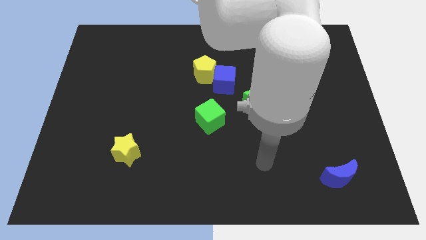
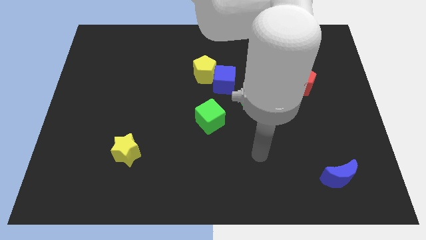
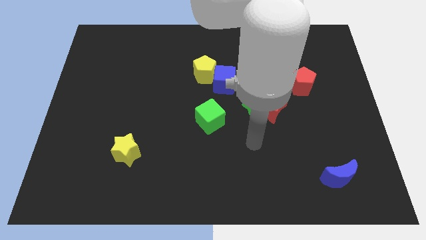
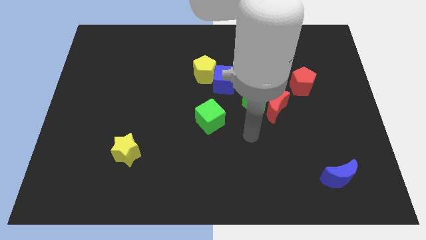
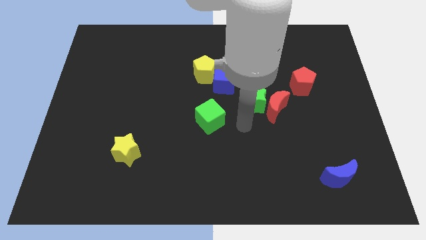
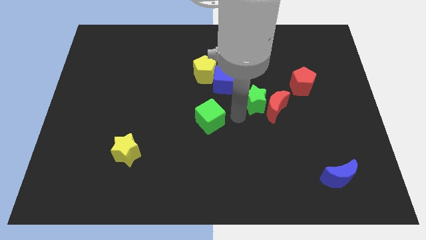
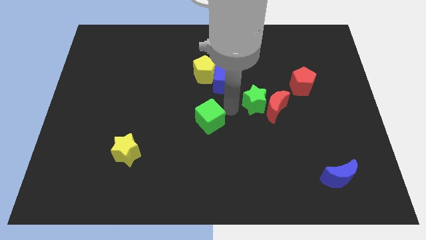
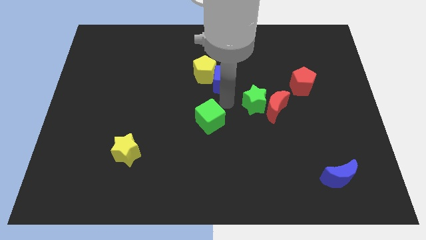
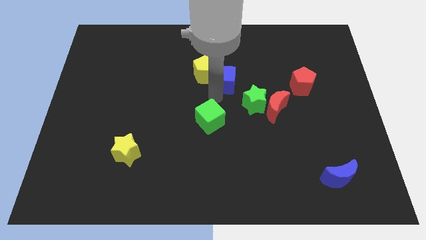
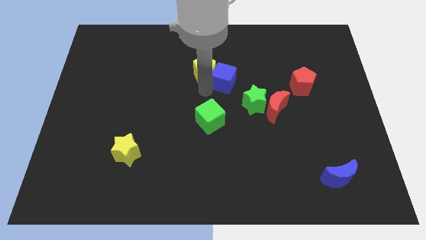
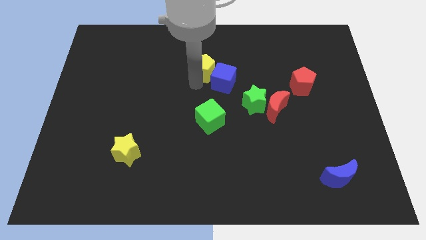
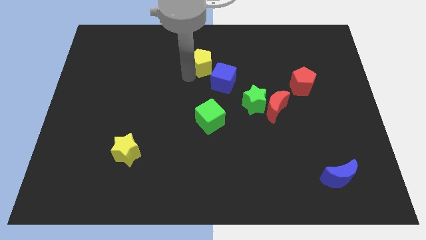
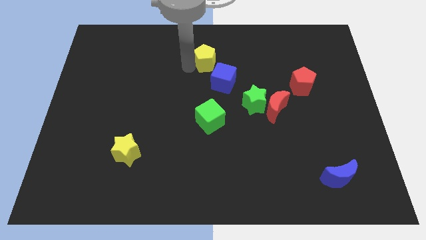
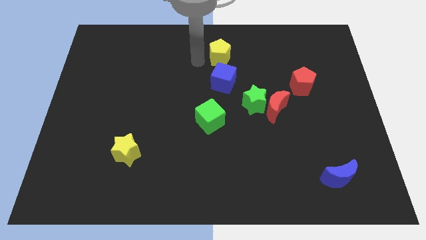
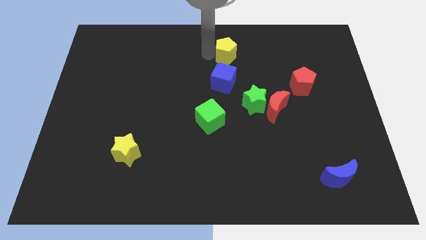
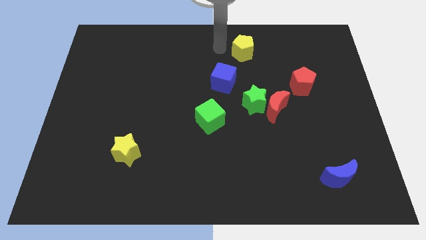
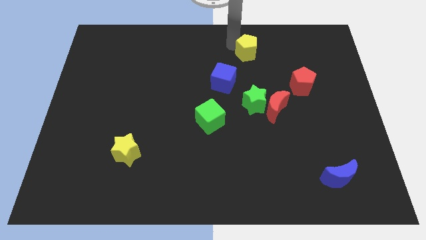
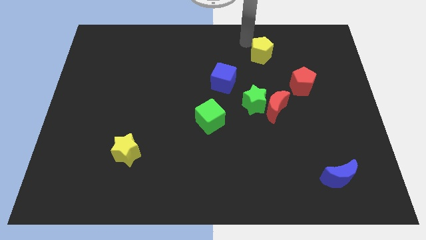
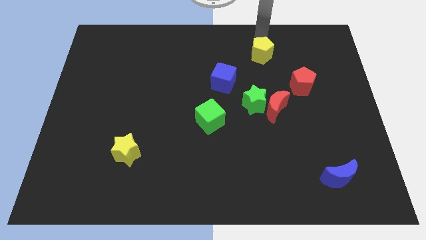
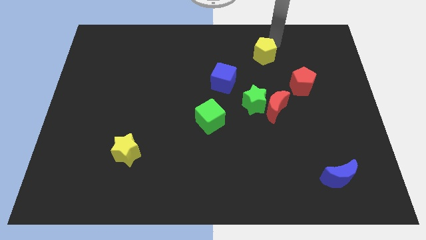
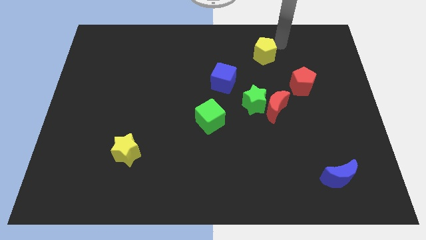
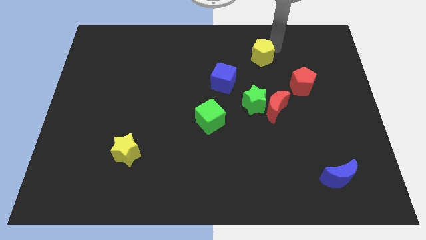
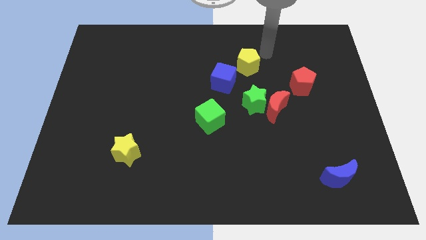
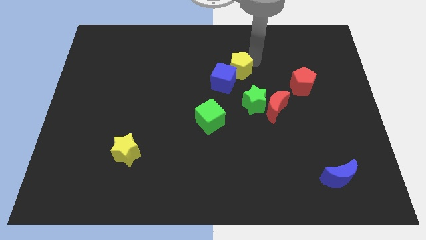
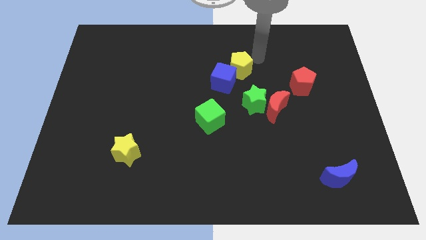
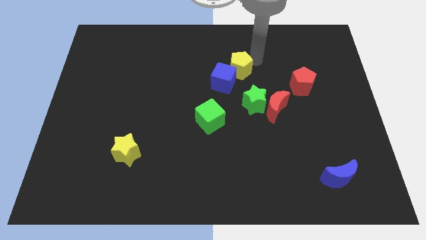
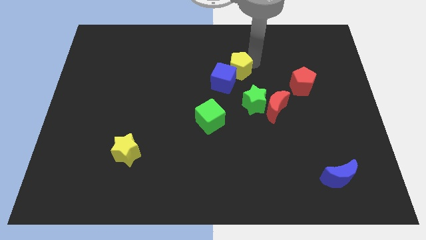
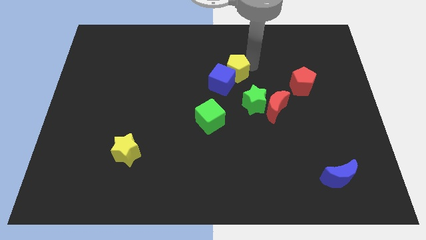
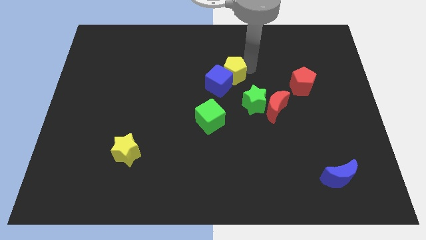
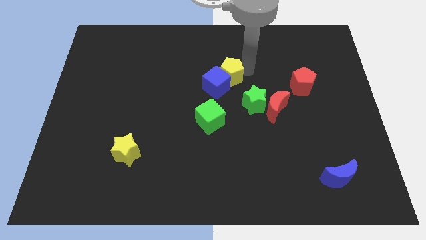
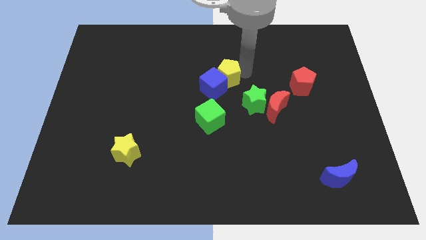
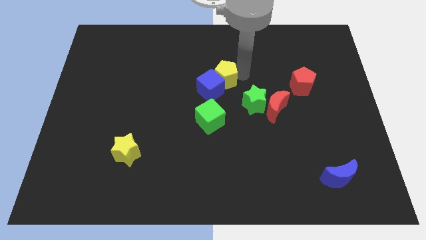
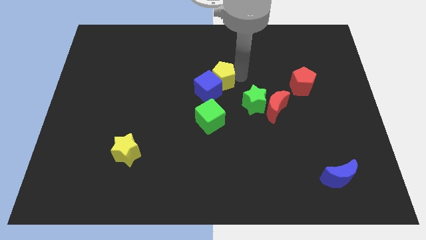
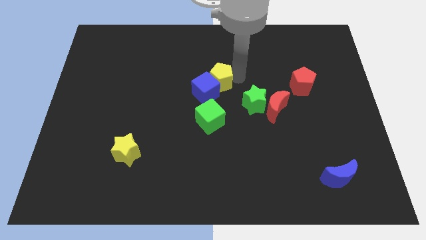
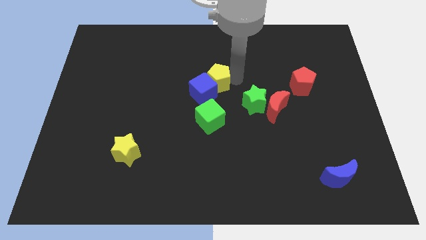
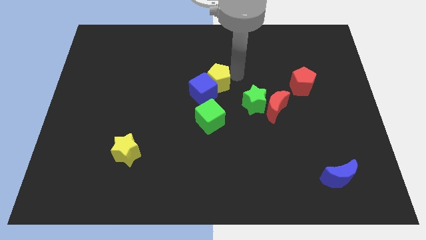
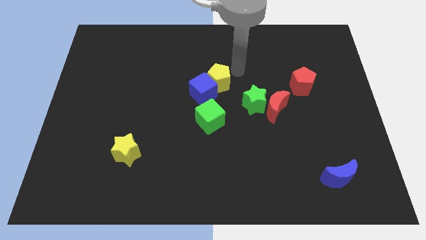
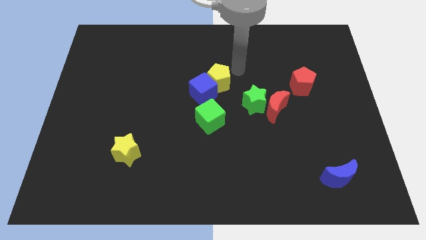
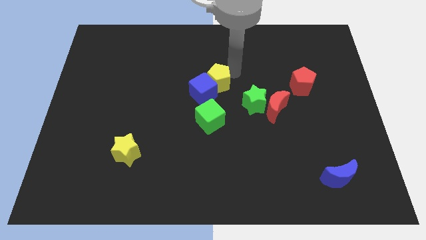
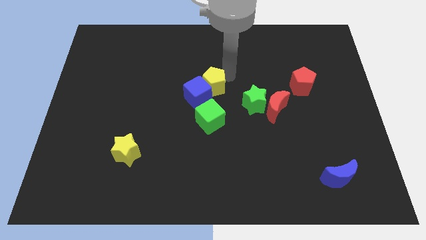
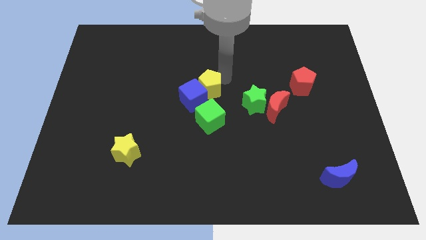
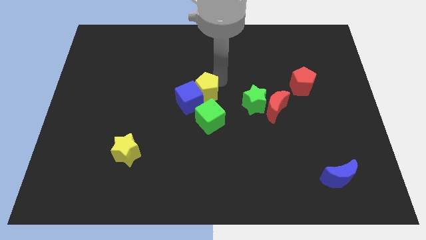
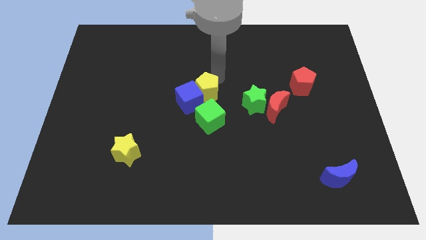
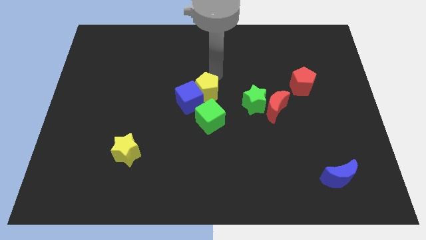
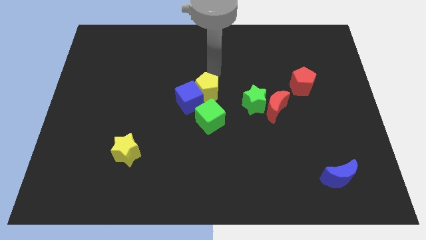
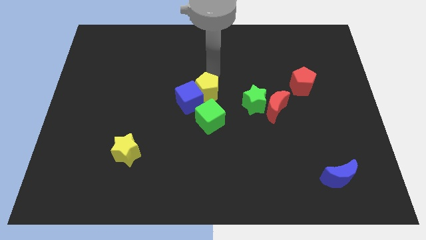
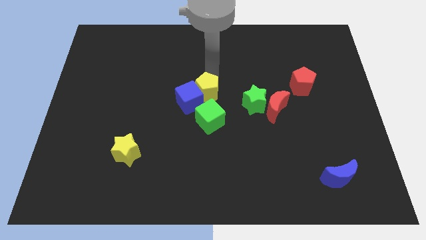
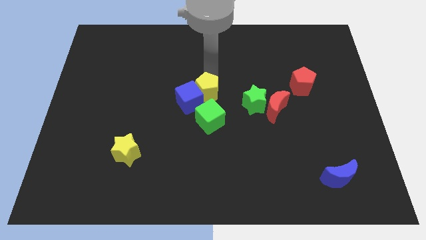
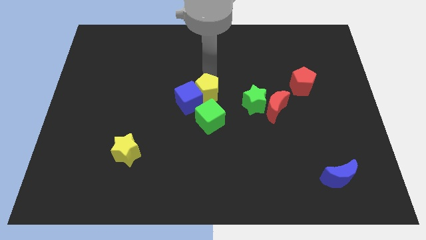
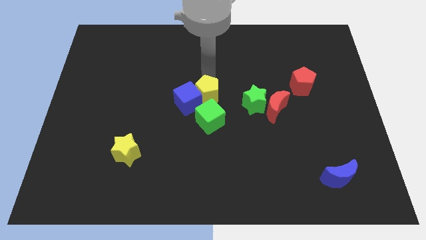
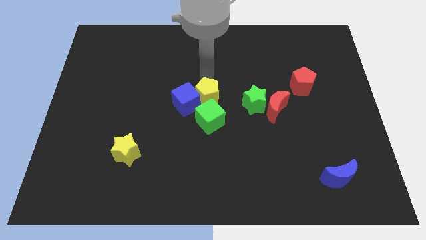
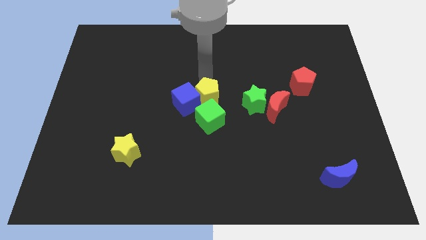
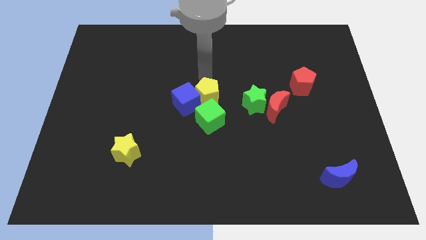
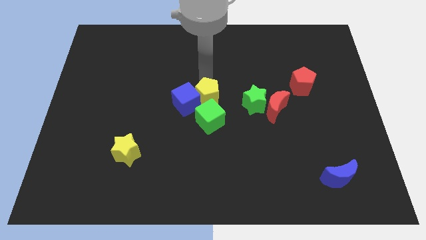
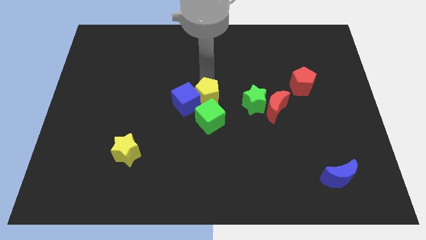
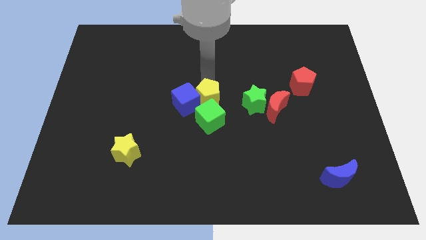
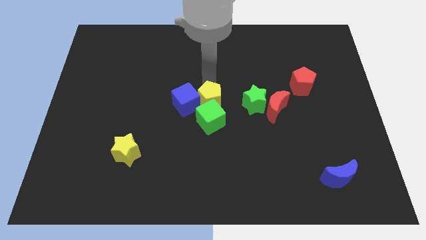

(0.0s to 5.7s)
move the yellow pentagon to the green cube

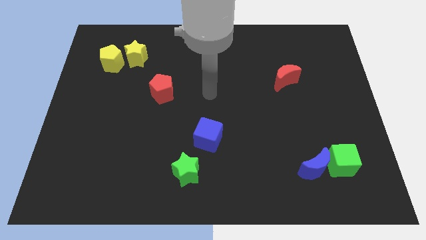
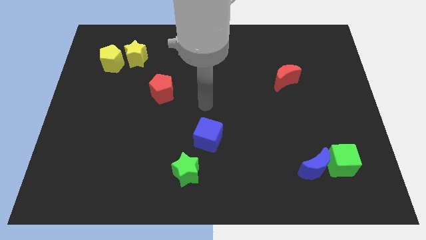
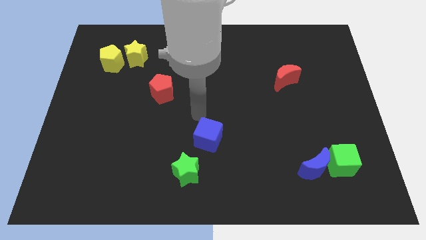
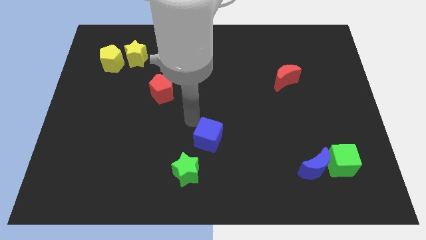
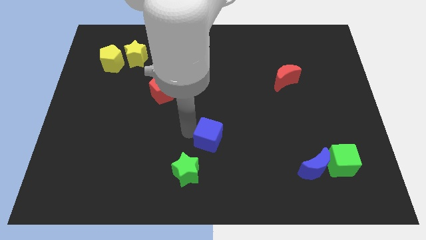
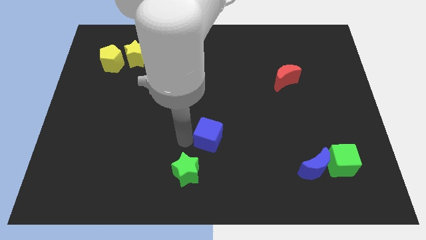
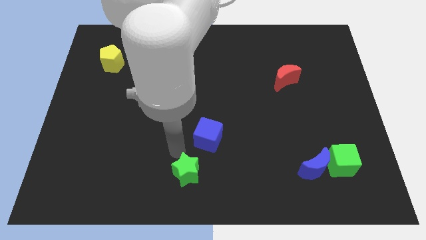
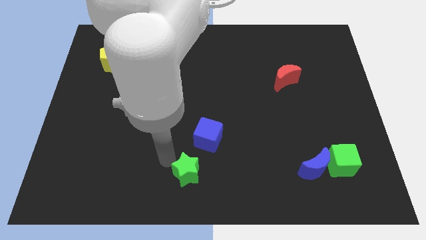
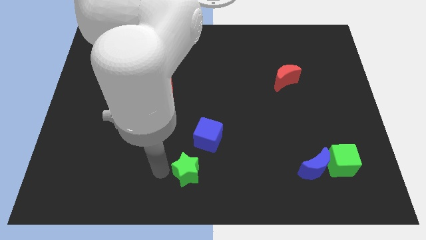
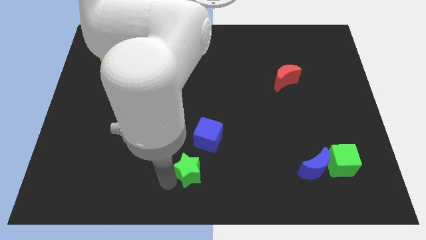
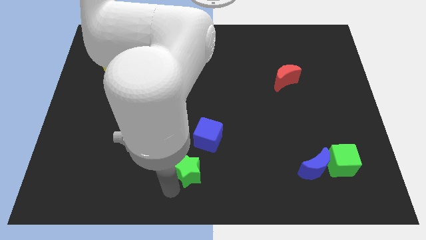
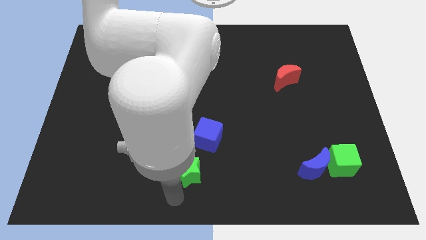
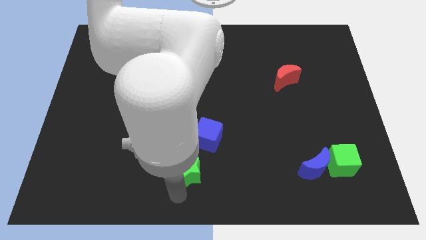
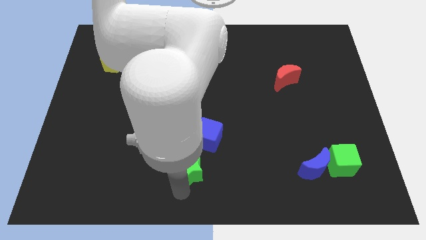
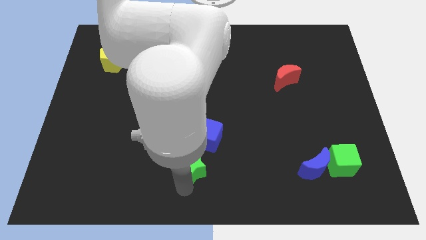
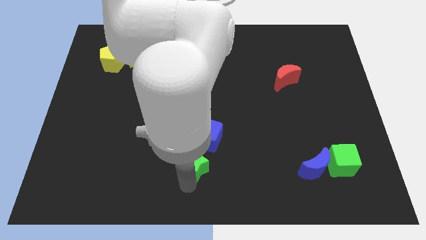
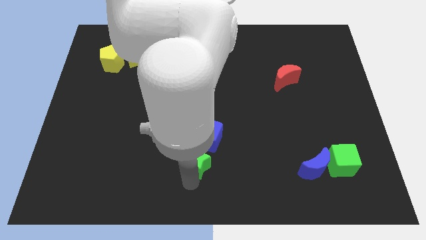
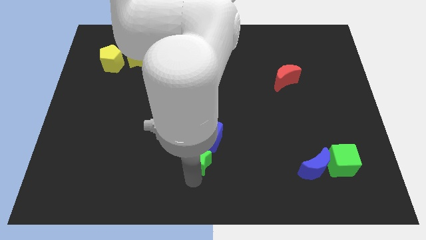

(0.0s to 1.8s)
put the green star close to the blue cube
